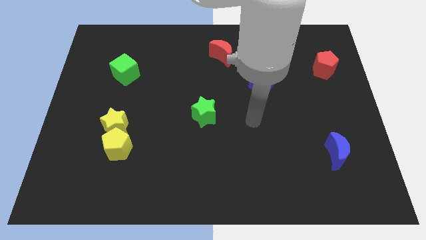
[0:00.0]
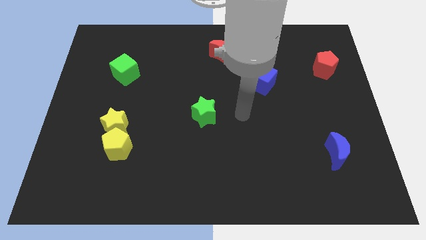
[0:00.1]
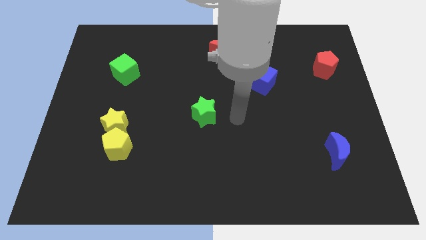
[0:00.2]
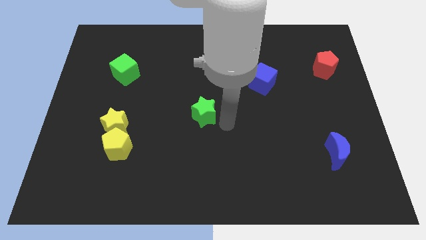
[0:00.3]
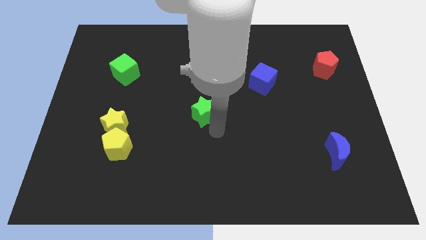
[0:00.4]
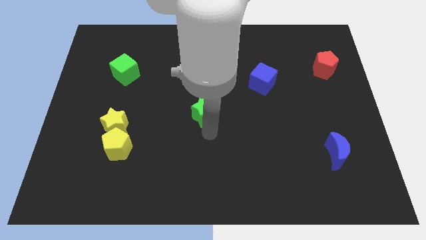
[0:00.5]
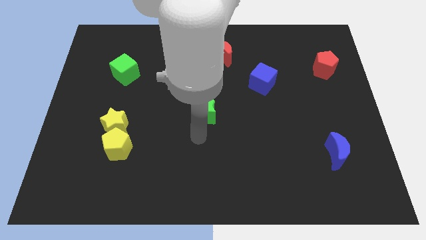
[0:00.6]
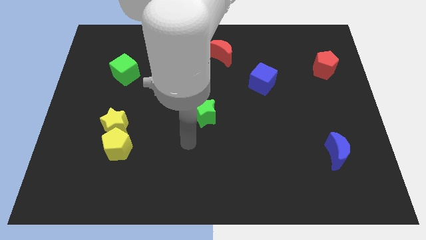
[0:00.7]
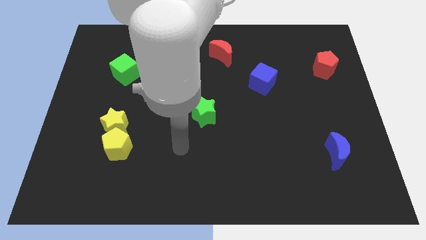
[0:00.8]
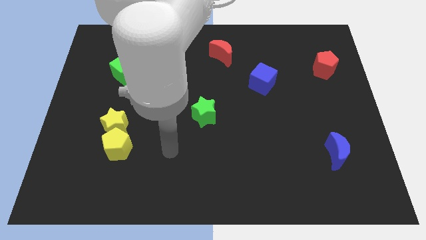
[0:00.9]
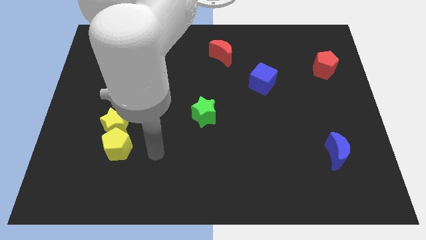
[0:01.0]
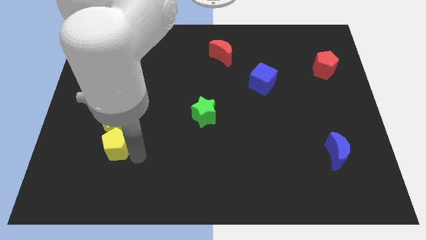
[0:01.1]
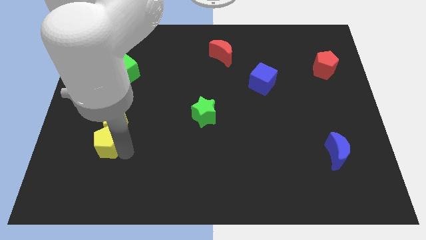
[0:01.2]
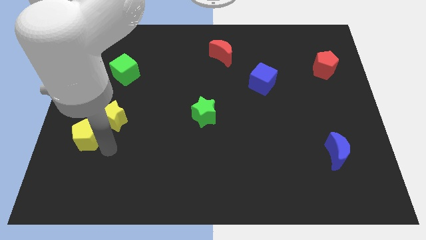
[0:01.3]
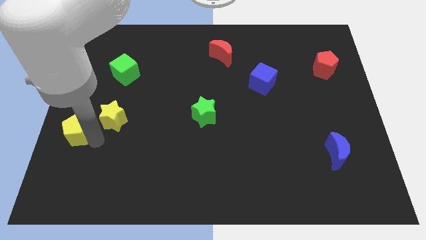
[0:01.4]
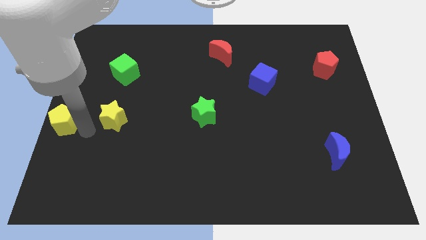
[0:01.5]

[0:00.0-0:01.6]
move the yellow star away from the yellow pentagon

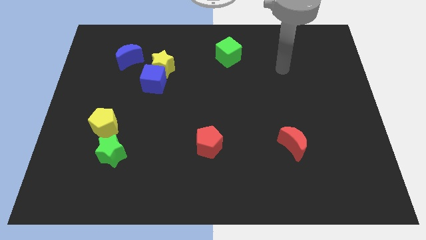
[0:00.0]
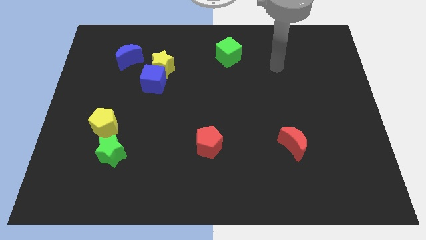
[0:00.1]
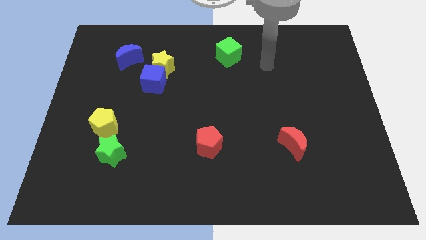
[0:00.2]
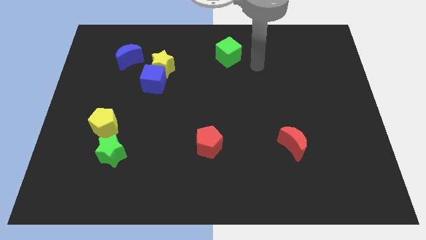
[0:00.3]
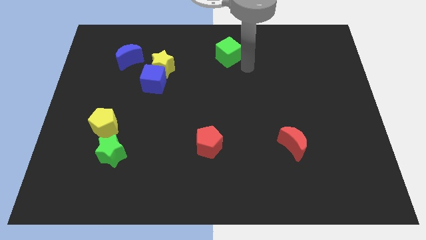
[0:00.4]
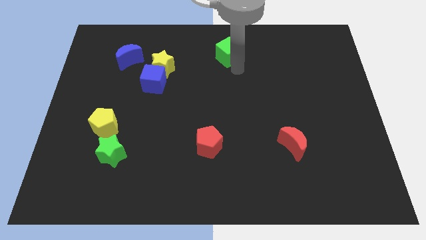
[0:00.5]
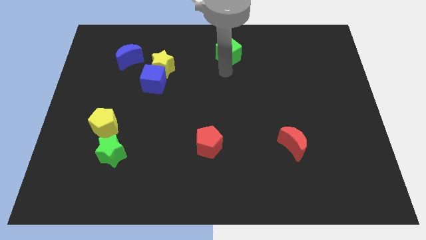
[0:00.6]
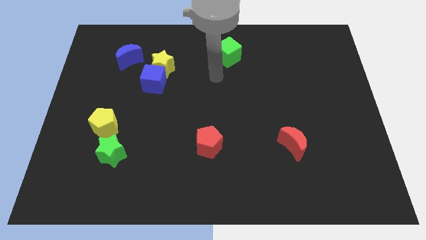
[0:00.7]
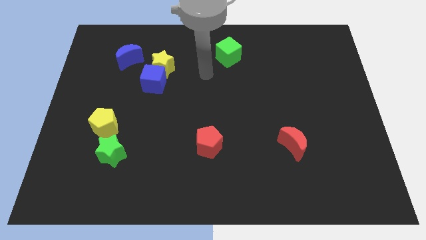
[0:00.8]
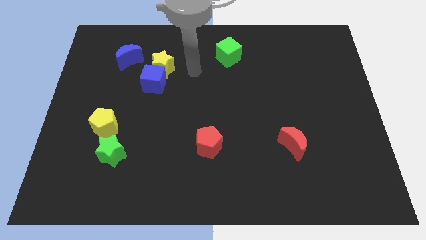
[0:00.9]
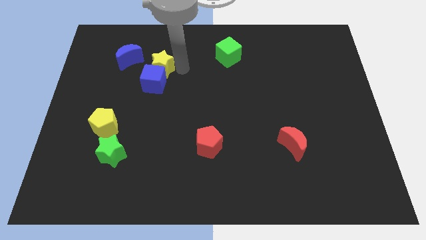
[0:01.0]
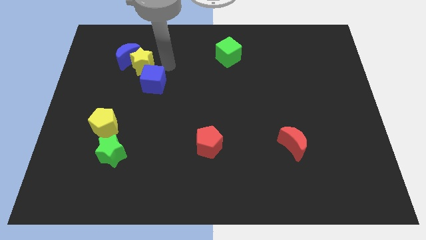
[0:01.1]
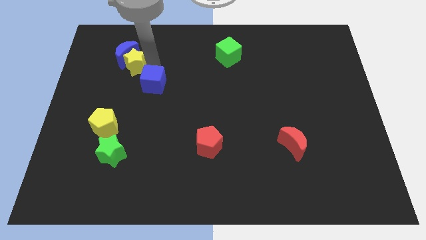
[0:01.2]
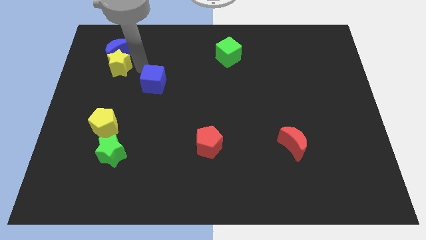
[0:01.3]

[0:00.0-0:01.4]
move the blue cube away from the yellow star

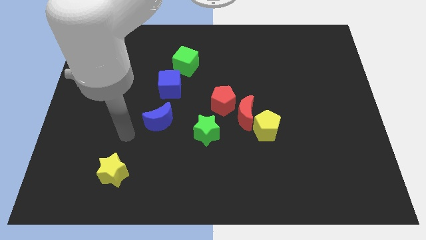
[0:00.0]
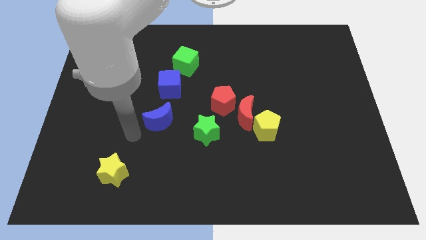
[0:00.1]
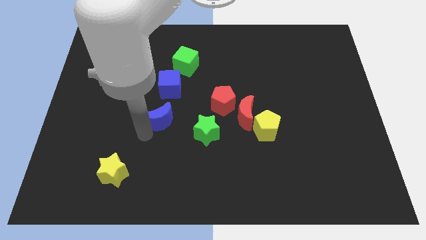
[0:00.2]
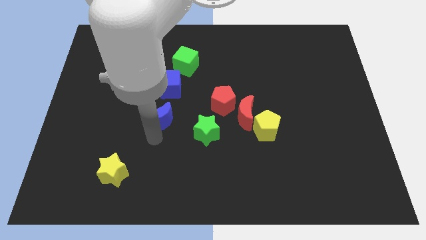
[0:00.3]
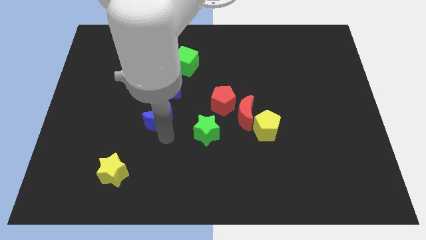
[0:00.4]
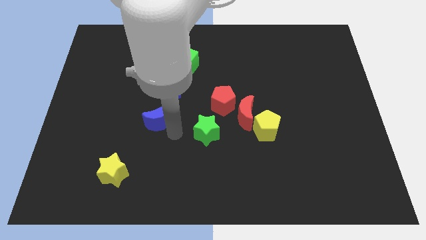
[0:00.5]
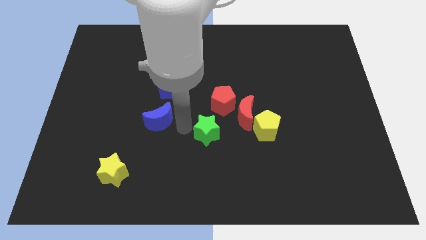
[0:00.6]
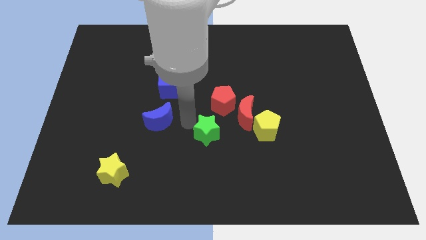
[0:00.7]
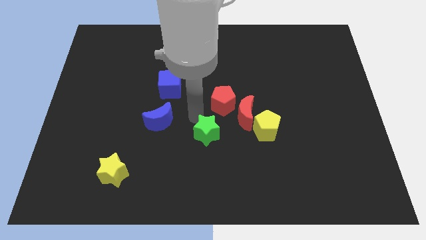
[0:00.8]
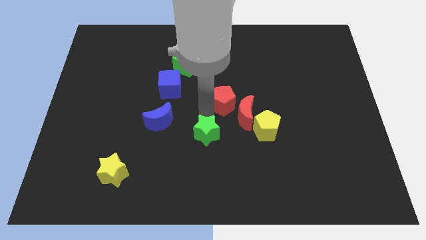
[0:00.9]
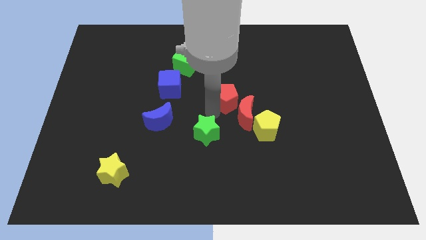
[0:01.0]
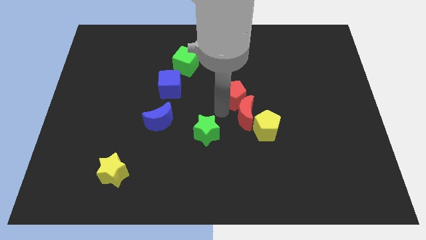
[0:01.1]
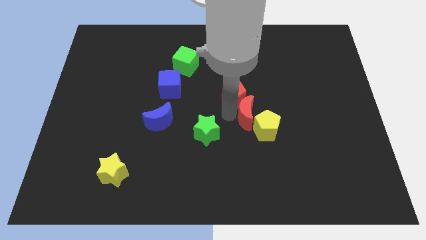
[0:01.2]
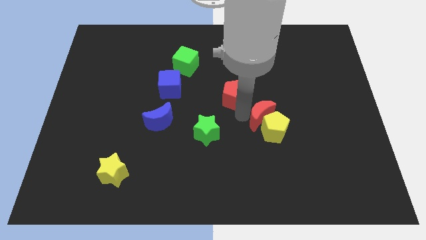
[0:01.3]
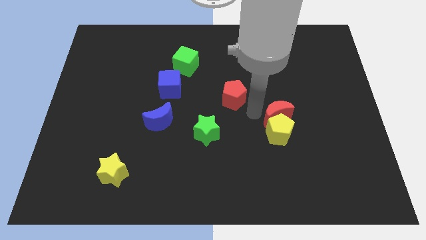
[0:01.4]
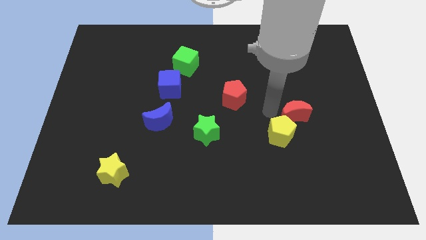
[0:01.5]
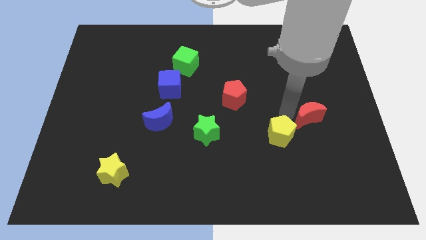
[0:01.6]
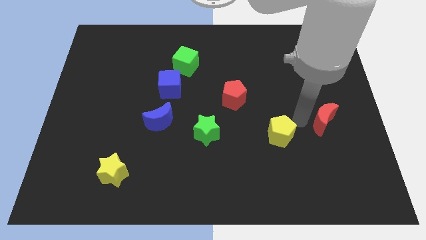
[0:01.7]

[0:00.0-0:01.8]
pull the yellow pentagon apart from the red moon

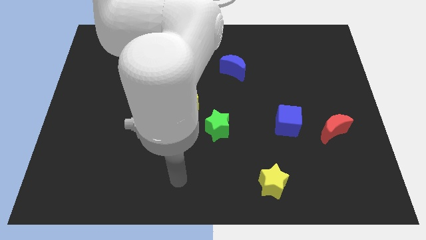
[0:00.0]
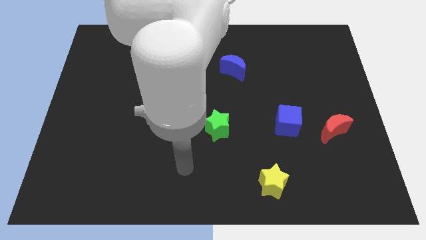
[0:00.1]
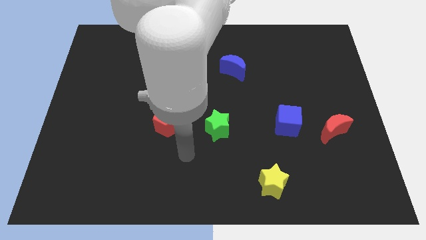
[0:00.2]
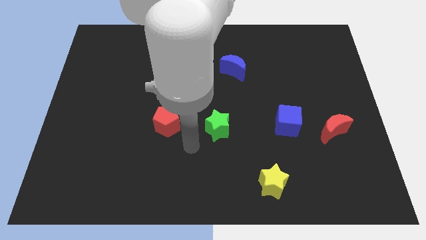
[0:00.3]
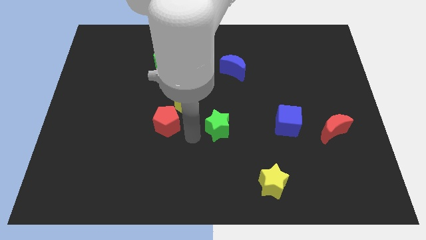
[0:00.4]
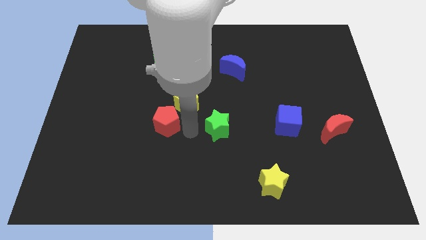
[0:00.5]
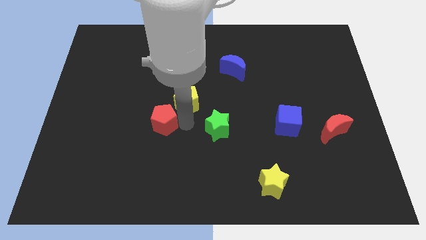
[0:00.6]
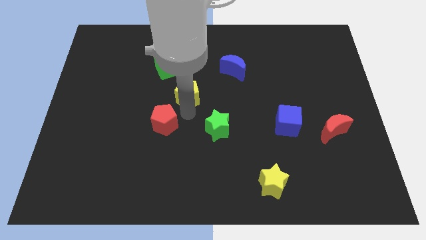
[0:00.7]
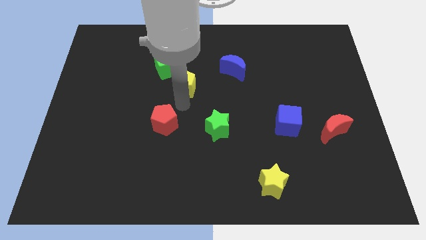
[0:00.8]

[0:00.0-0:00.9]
move the red pentagon away from the yellow pentagon

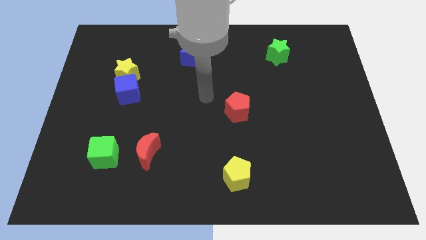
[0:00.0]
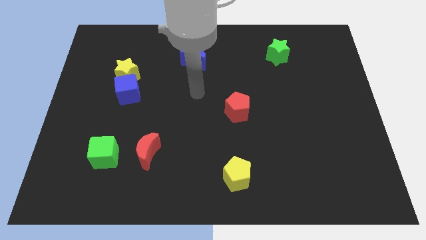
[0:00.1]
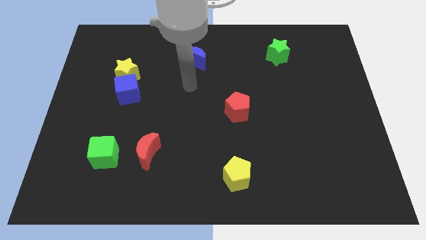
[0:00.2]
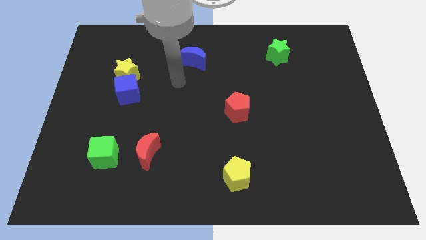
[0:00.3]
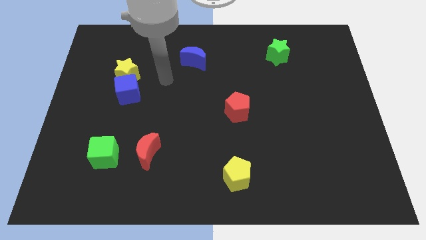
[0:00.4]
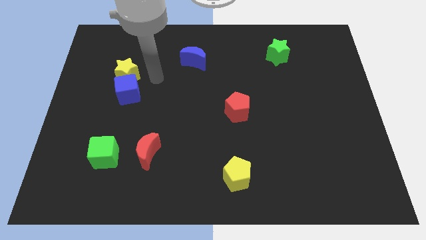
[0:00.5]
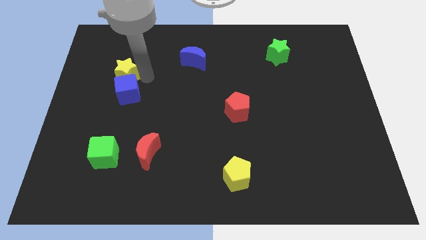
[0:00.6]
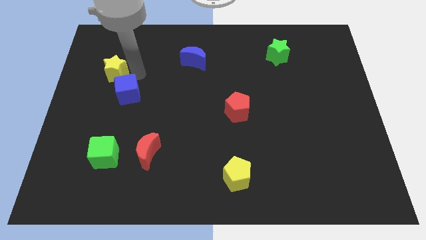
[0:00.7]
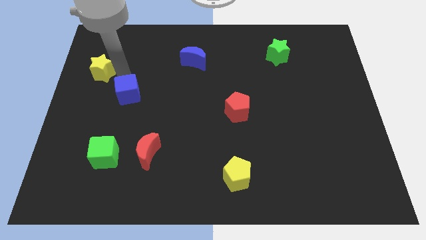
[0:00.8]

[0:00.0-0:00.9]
pull the blue cube apart from the yellow star

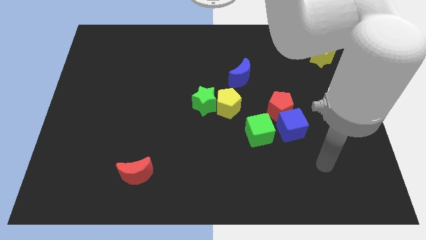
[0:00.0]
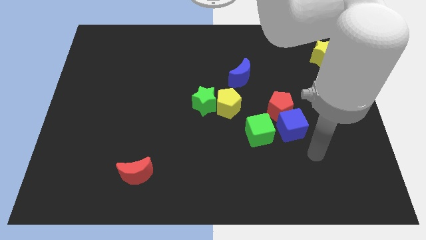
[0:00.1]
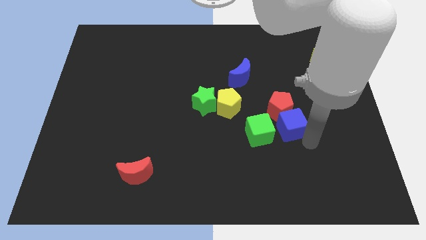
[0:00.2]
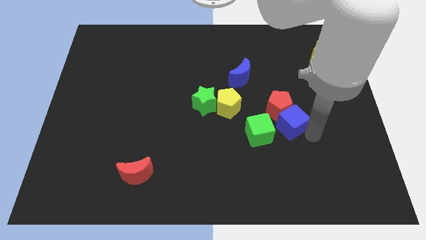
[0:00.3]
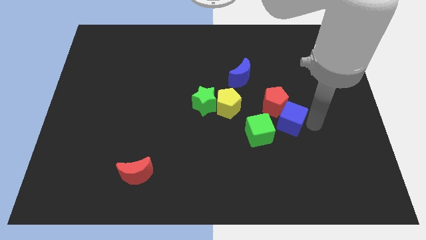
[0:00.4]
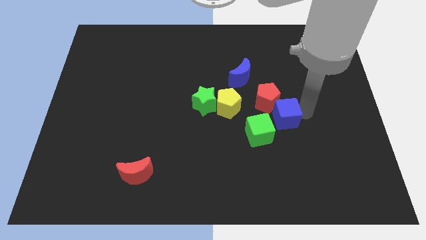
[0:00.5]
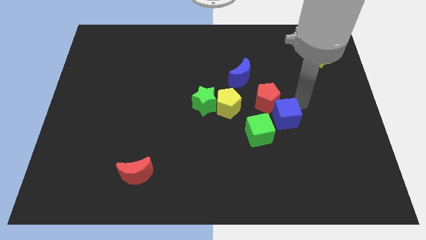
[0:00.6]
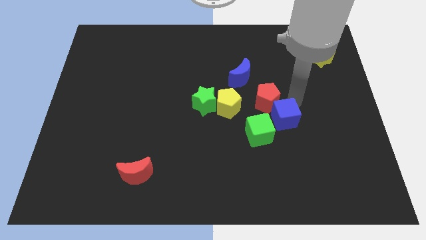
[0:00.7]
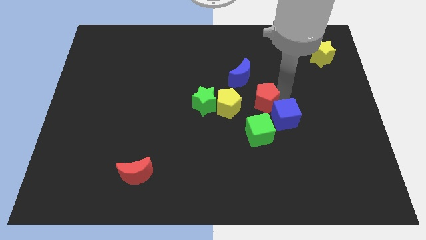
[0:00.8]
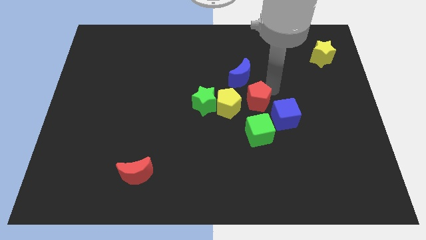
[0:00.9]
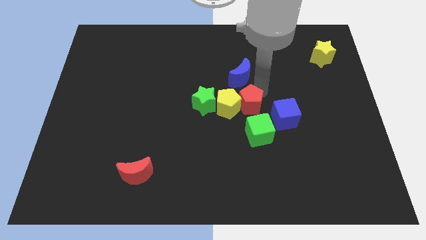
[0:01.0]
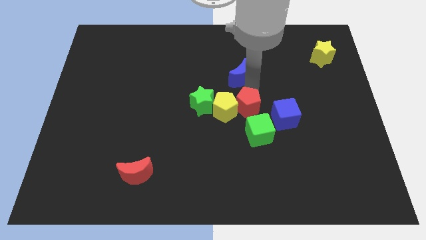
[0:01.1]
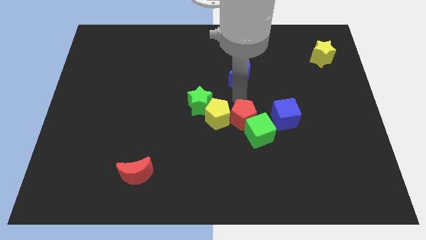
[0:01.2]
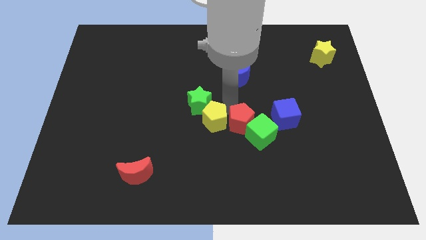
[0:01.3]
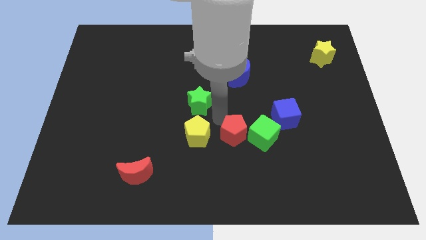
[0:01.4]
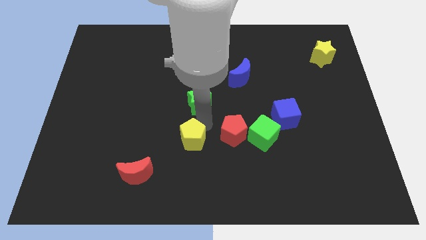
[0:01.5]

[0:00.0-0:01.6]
separate the green star from the yellow pentagon

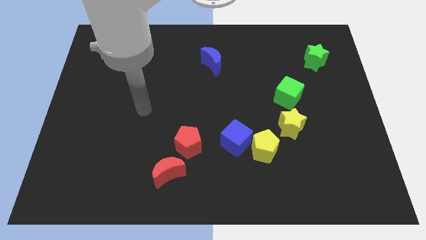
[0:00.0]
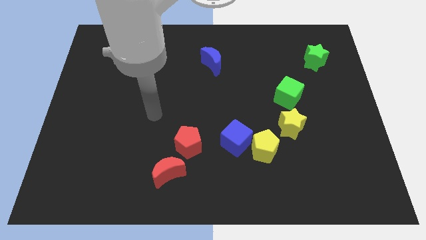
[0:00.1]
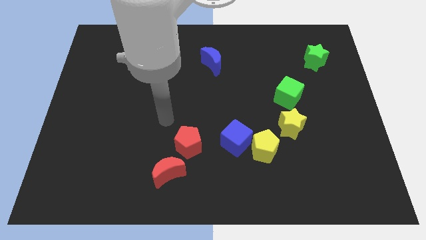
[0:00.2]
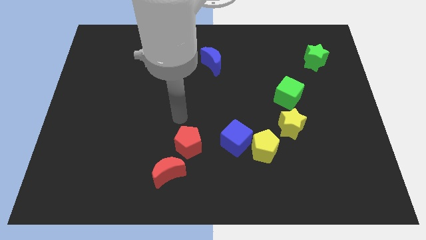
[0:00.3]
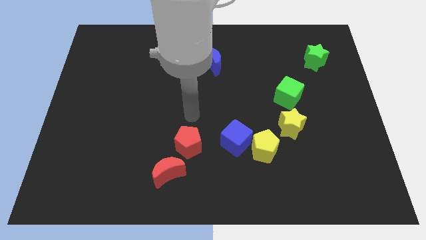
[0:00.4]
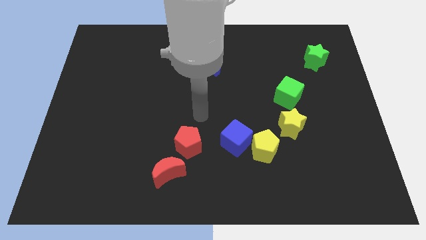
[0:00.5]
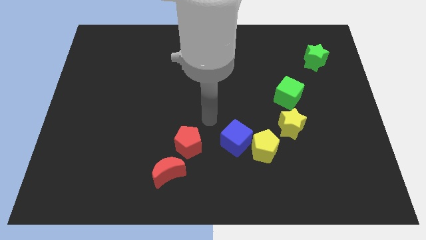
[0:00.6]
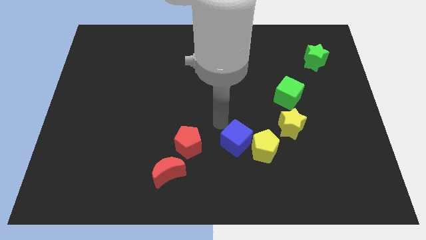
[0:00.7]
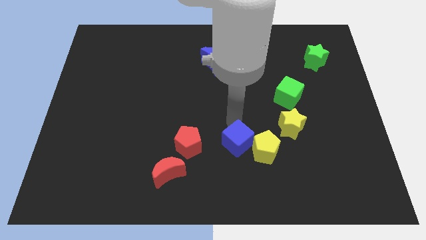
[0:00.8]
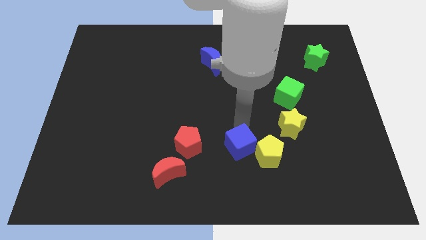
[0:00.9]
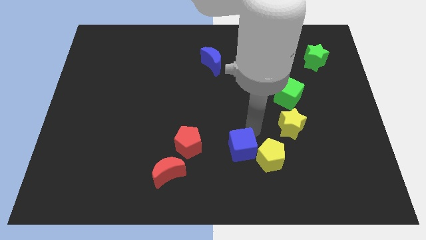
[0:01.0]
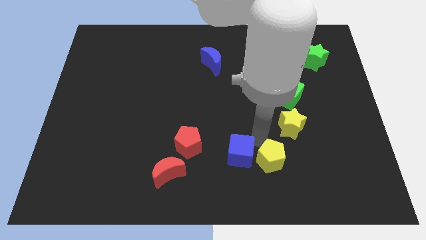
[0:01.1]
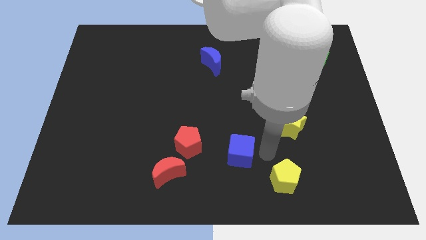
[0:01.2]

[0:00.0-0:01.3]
move the blue cube away from the yellow pentagon
